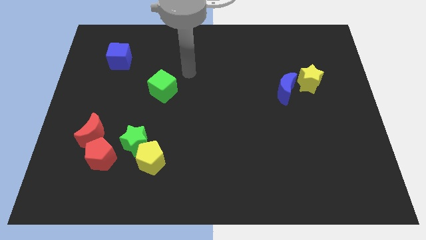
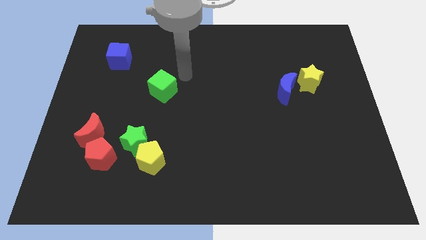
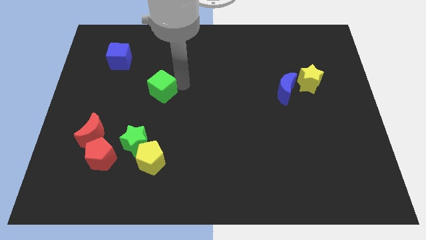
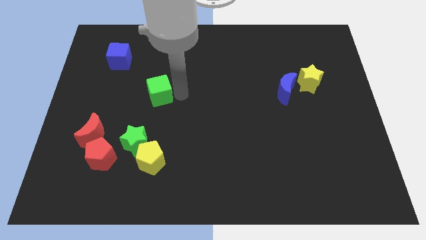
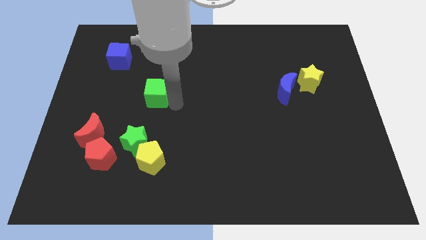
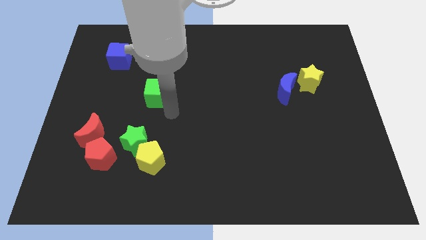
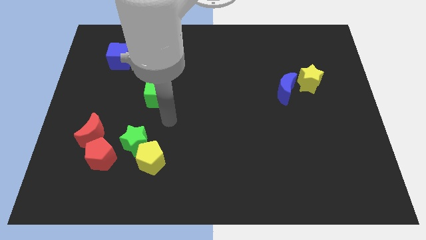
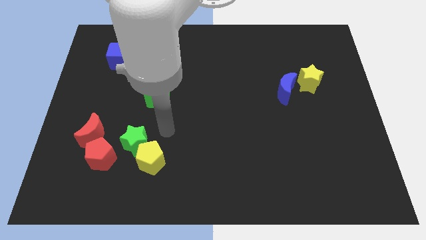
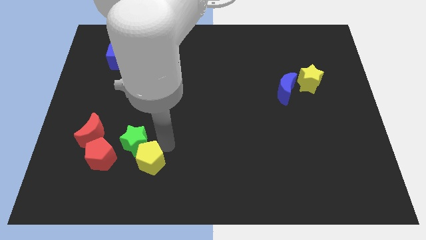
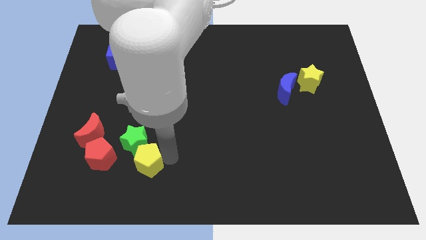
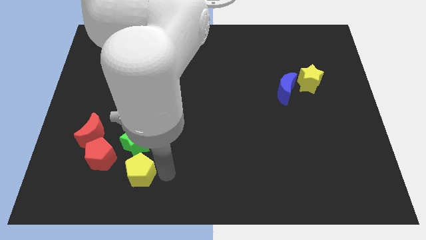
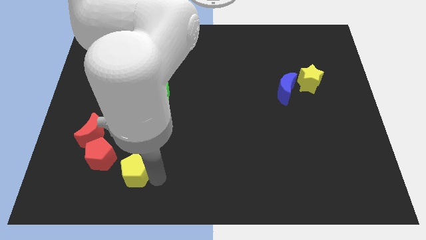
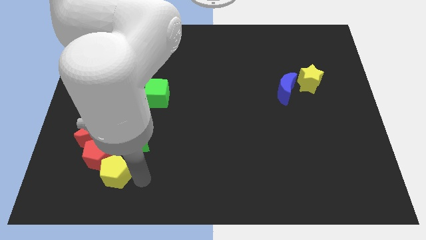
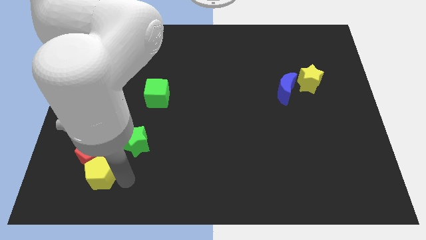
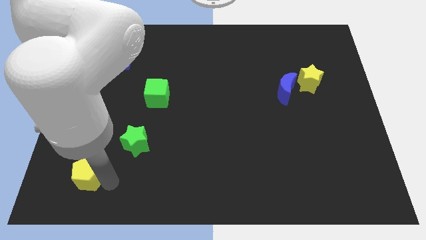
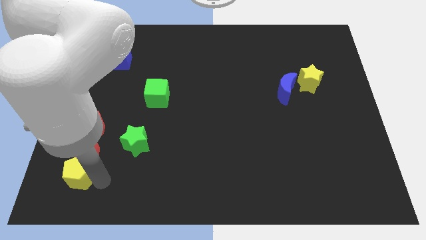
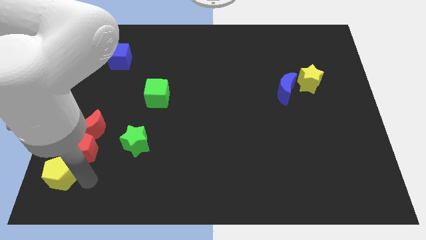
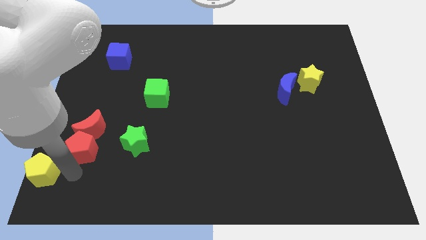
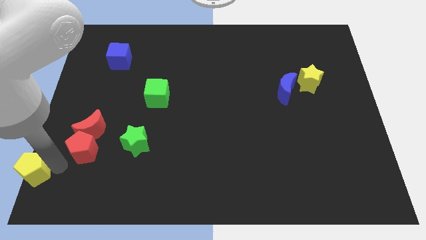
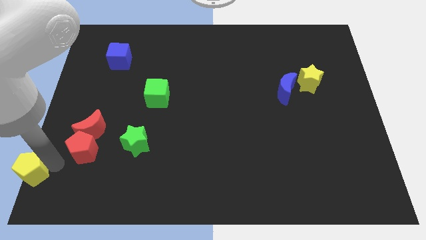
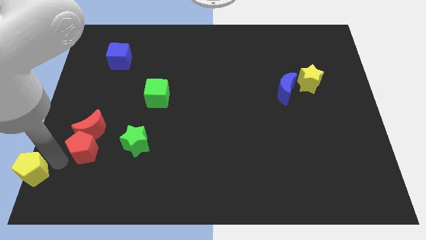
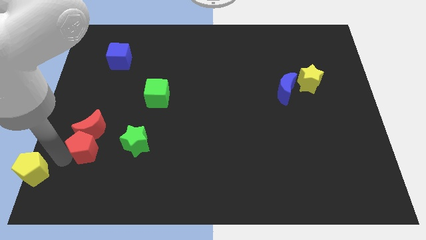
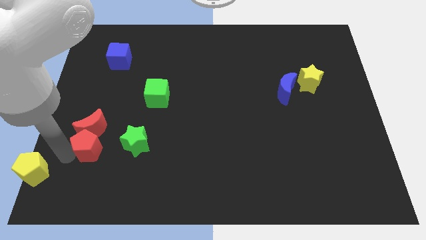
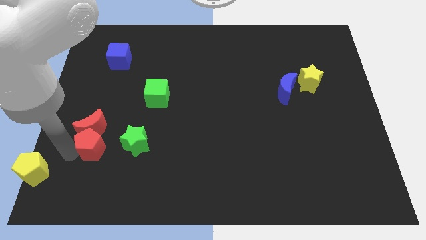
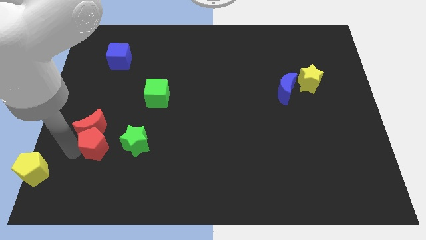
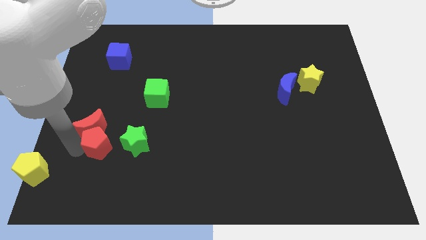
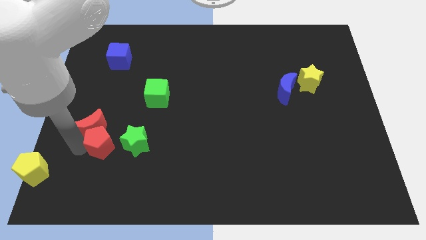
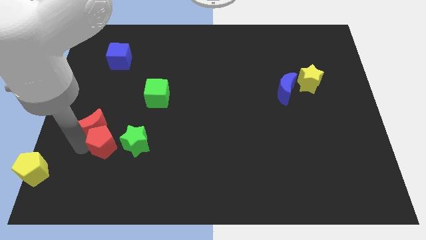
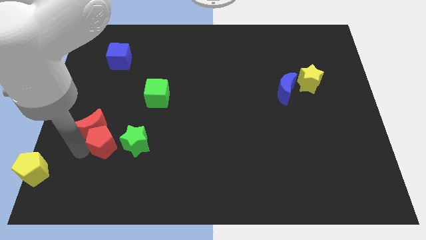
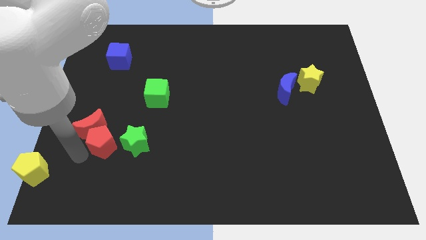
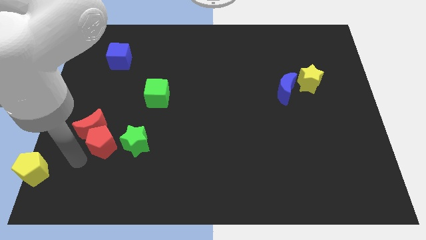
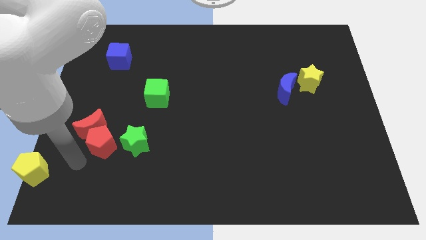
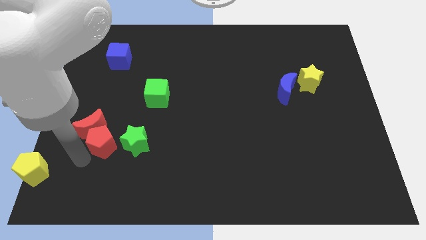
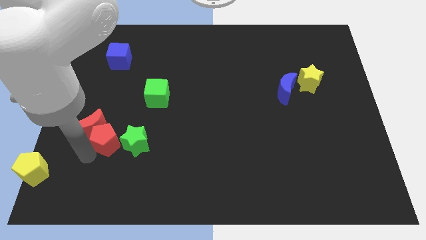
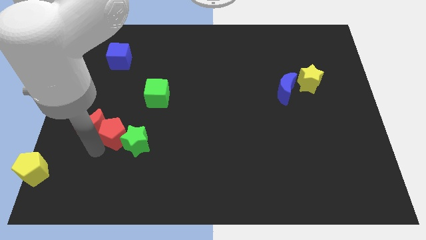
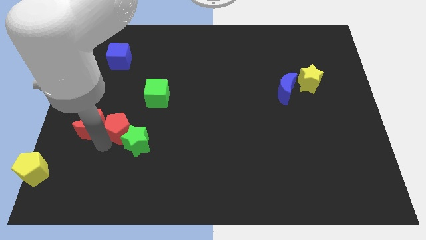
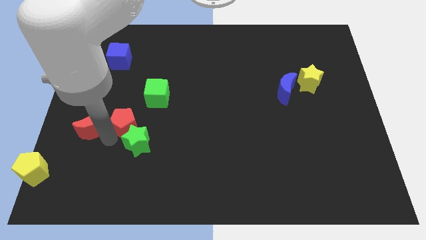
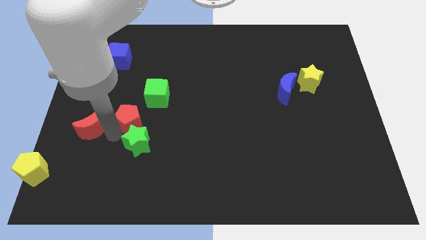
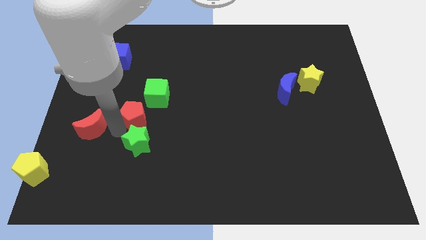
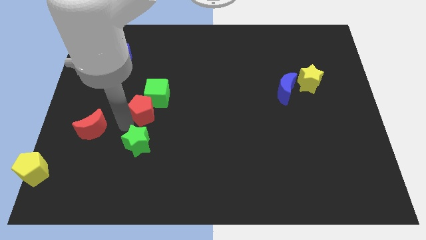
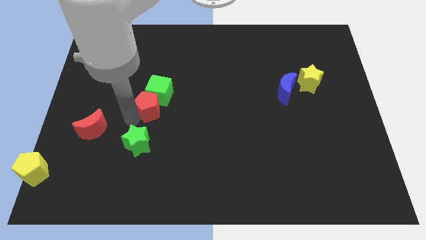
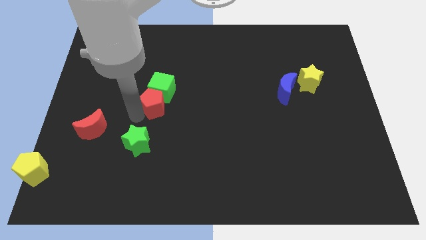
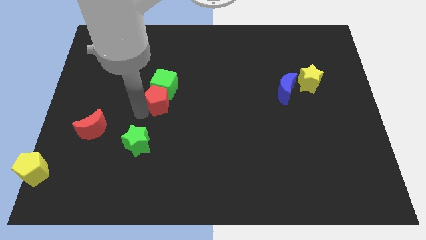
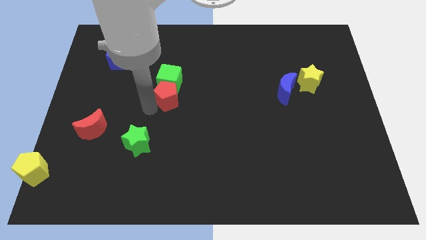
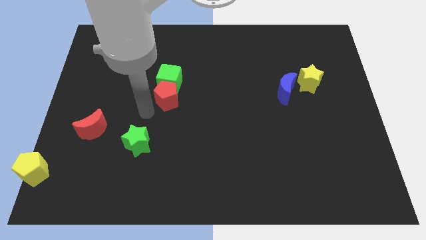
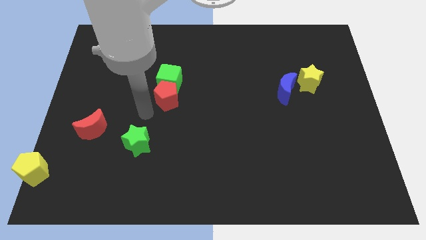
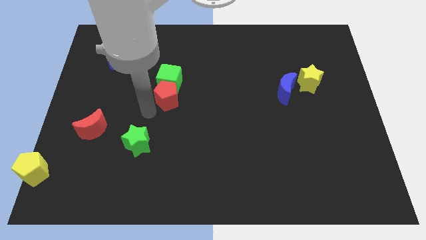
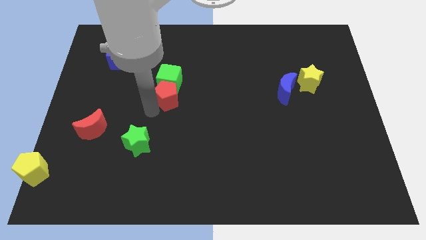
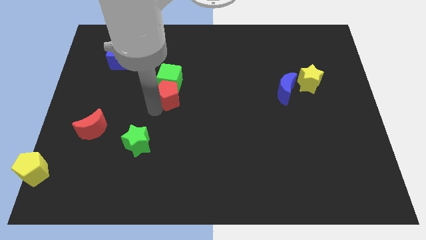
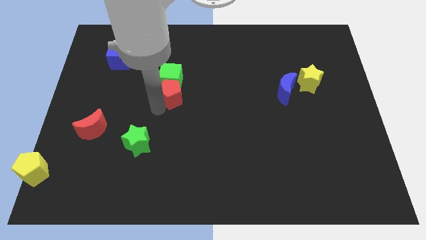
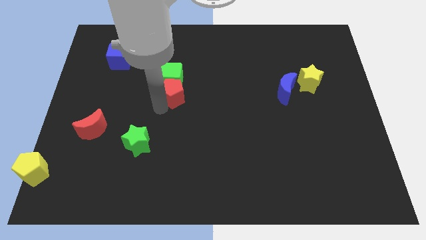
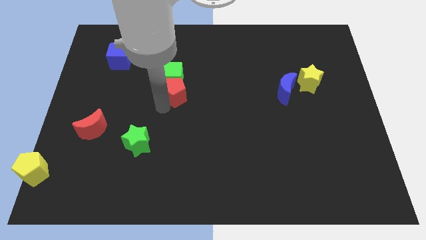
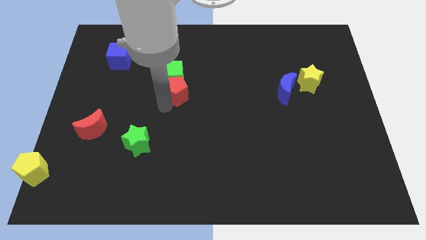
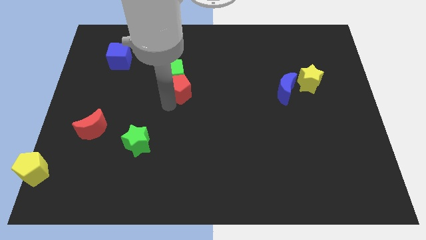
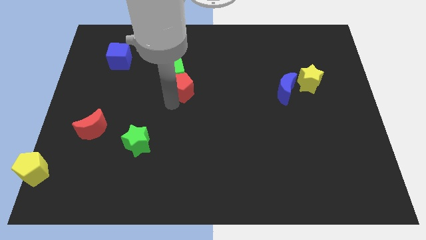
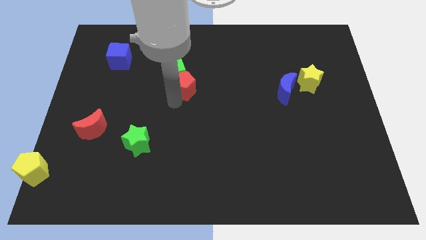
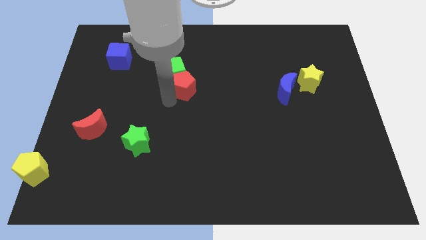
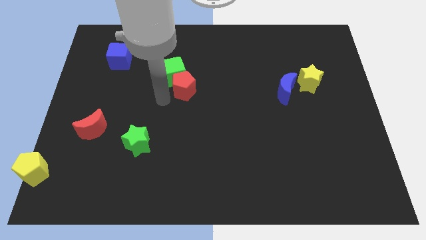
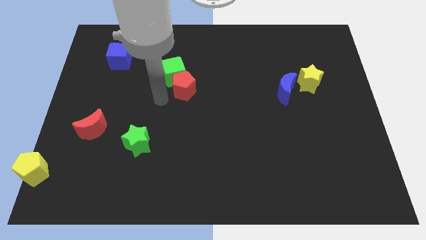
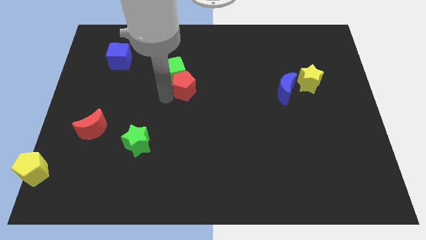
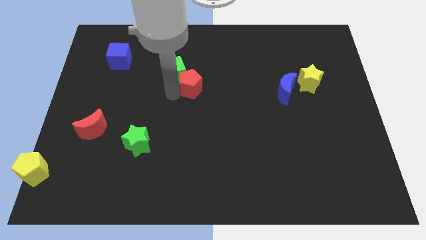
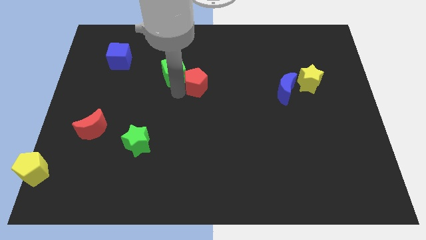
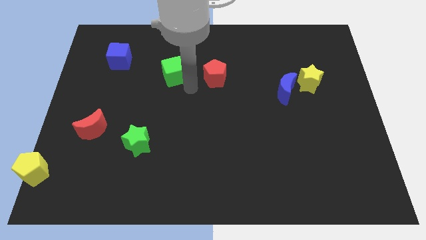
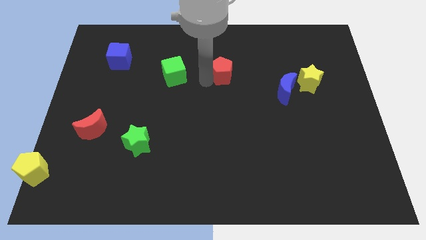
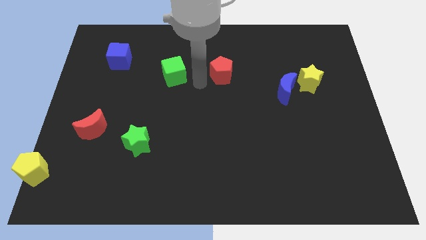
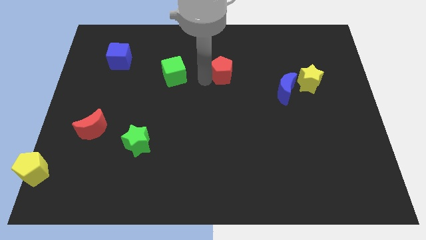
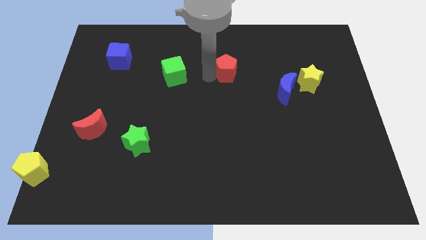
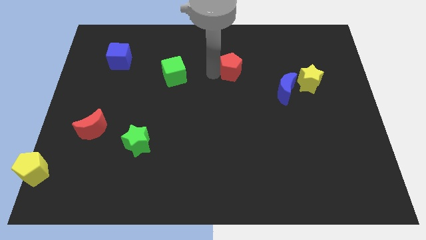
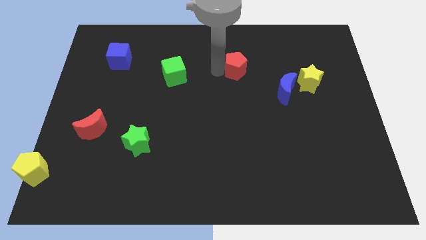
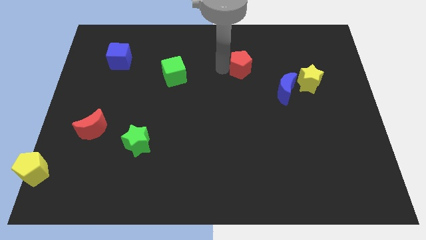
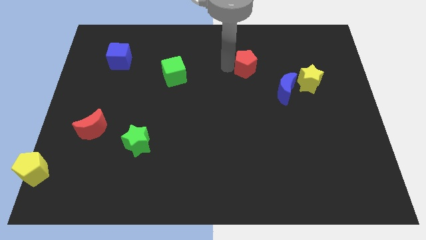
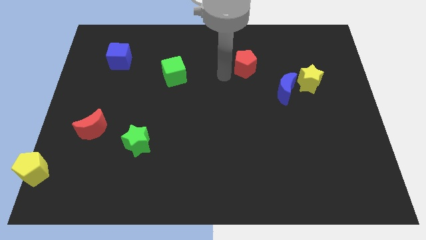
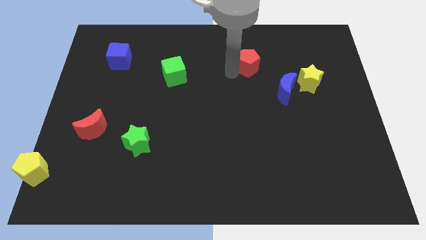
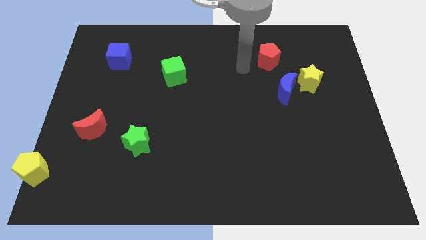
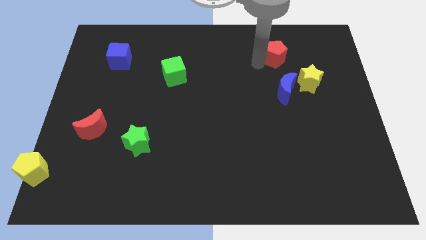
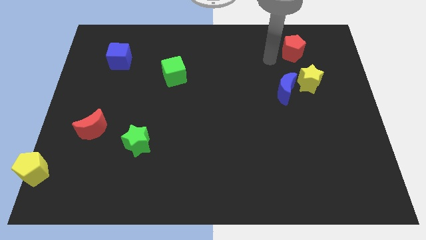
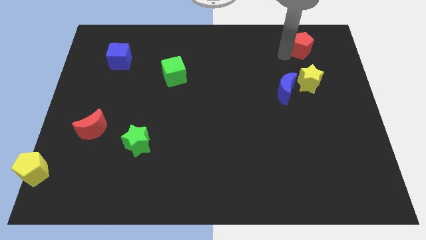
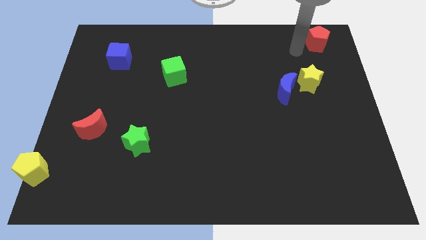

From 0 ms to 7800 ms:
move the red pentagon to the upper right corner
